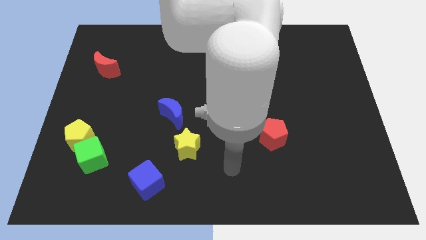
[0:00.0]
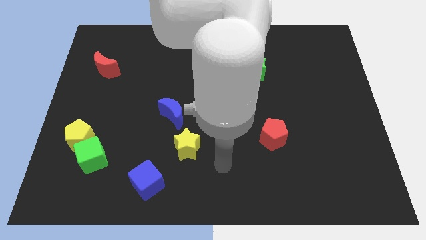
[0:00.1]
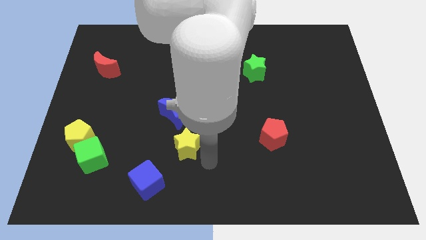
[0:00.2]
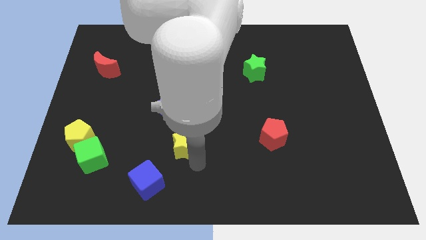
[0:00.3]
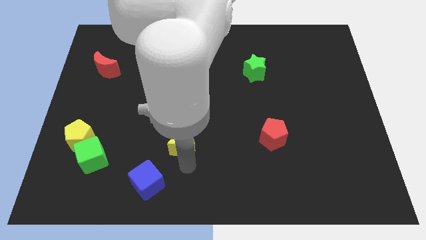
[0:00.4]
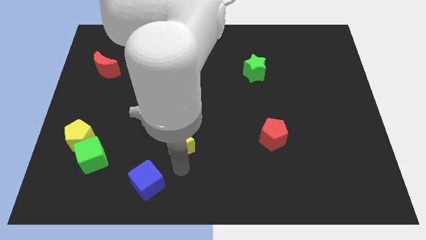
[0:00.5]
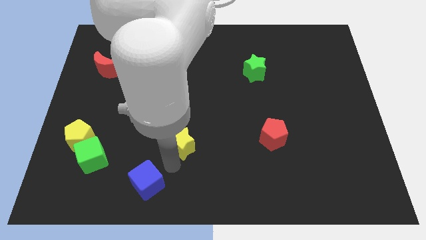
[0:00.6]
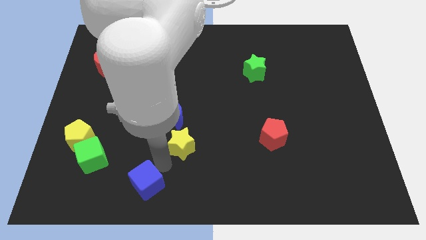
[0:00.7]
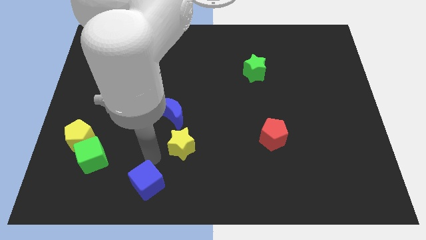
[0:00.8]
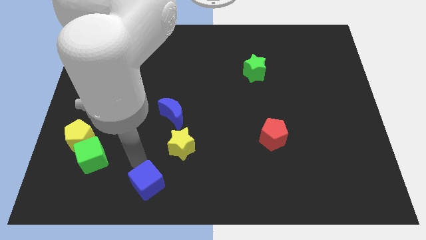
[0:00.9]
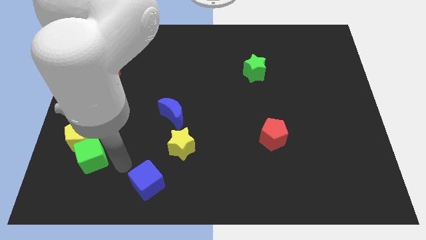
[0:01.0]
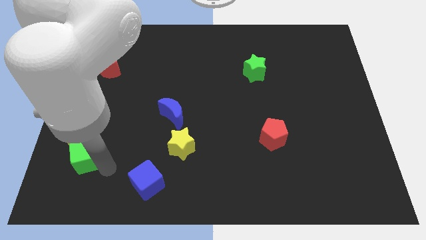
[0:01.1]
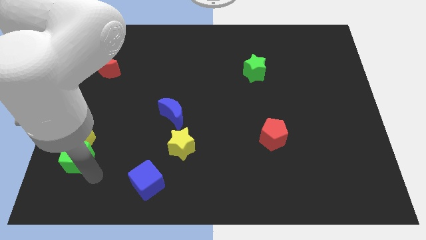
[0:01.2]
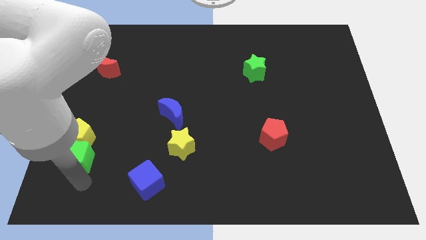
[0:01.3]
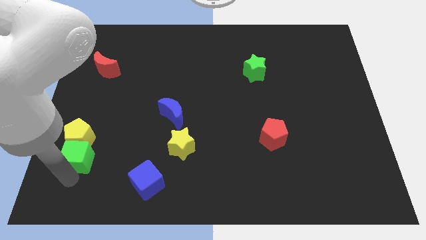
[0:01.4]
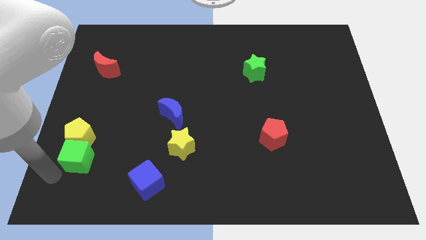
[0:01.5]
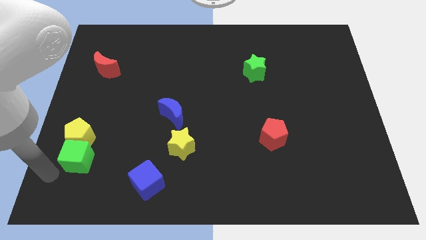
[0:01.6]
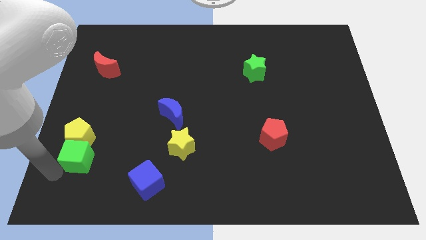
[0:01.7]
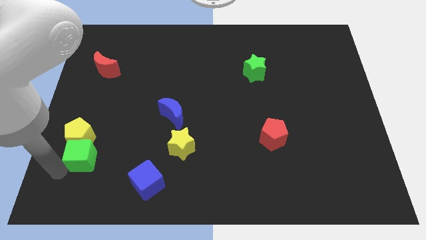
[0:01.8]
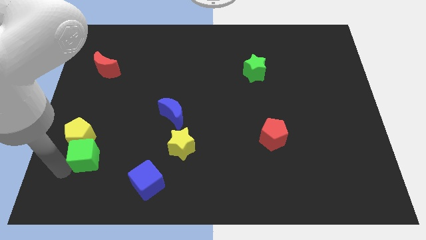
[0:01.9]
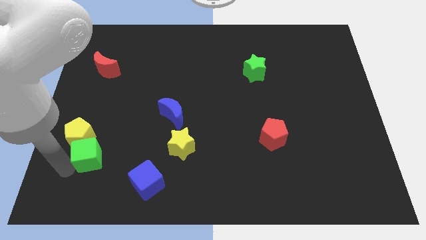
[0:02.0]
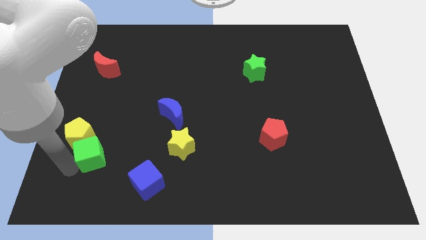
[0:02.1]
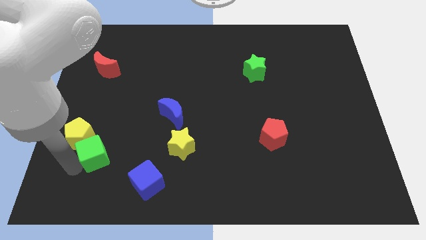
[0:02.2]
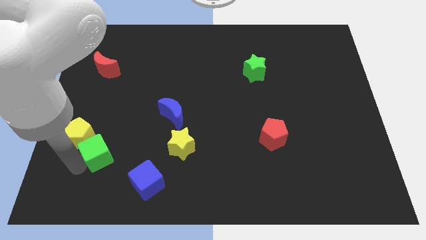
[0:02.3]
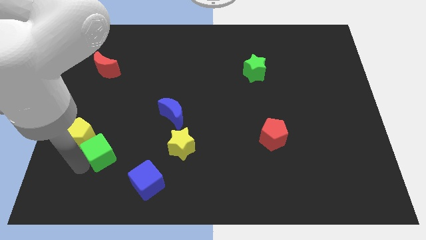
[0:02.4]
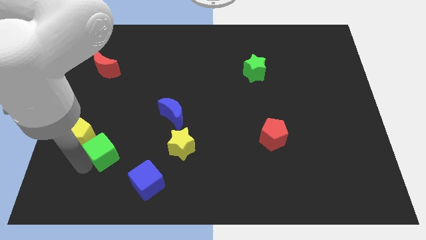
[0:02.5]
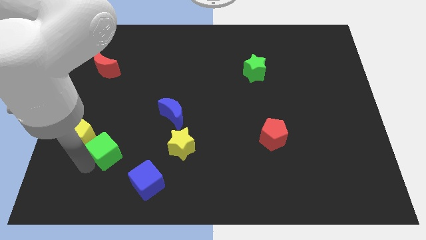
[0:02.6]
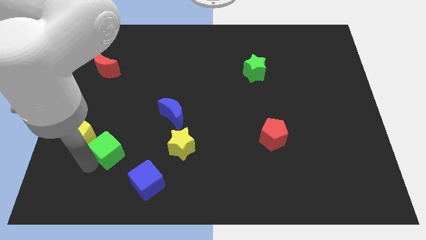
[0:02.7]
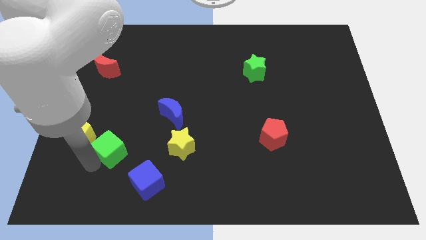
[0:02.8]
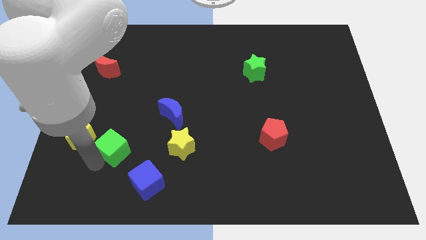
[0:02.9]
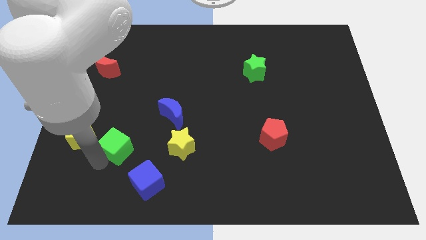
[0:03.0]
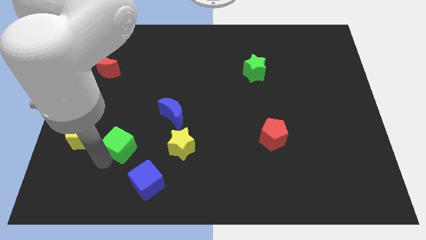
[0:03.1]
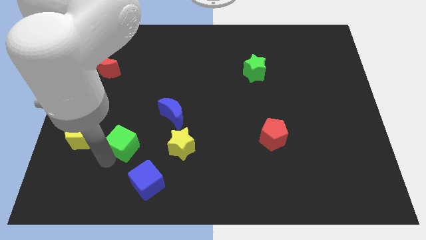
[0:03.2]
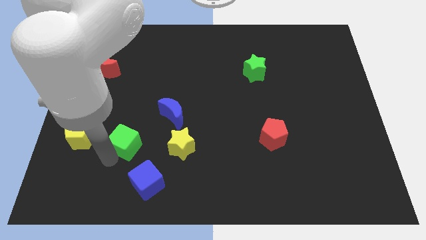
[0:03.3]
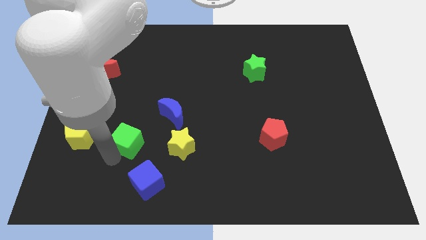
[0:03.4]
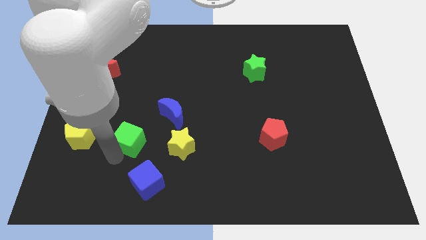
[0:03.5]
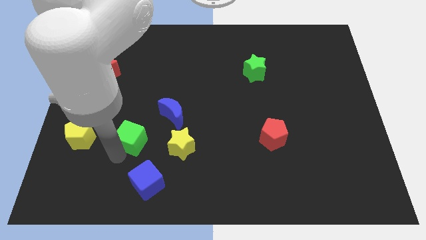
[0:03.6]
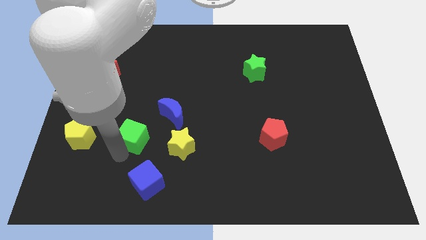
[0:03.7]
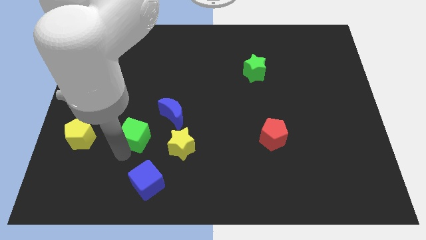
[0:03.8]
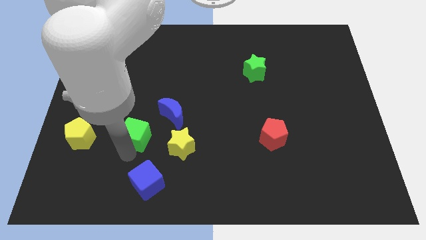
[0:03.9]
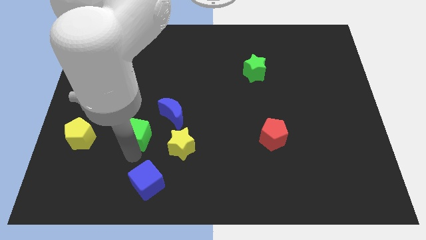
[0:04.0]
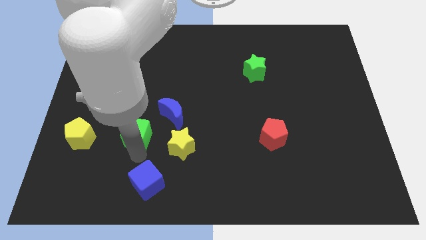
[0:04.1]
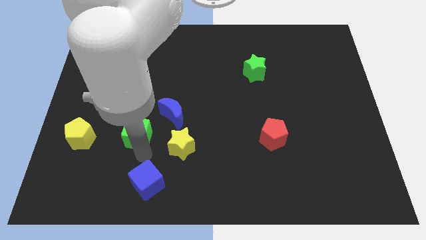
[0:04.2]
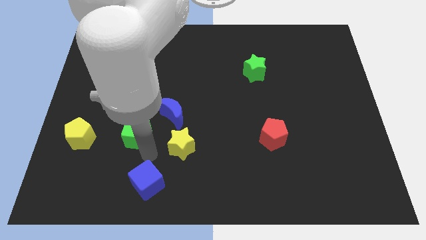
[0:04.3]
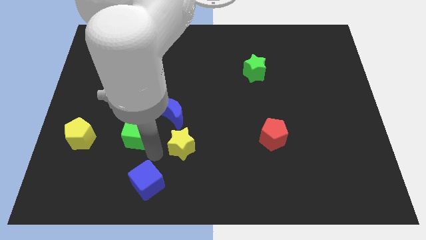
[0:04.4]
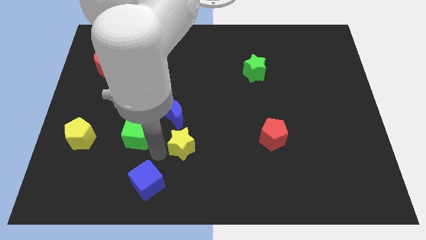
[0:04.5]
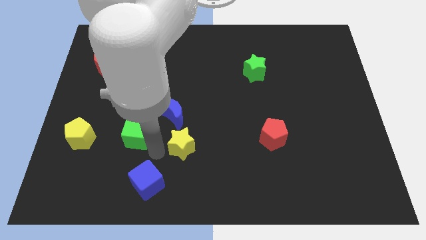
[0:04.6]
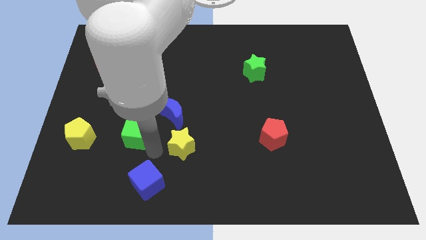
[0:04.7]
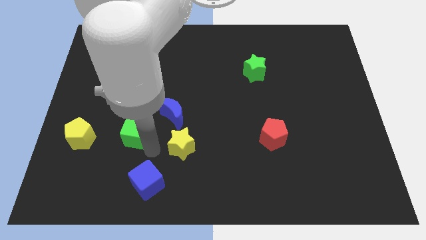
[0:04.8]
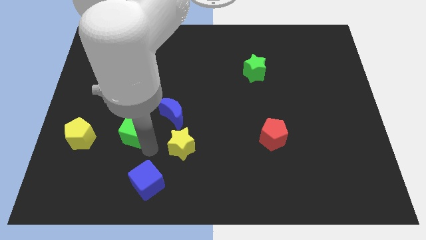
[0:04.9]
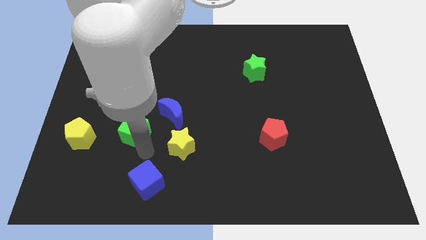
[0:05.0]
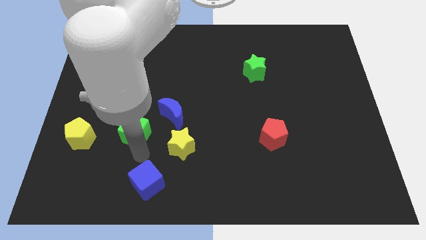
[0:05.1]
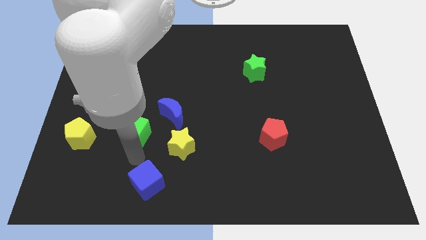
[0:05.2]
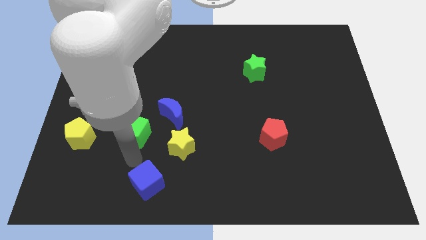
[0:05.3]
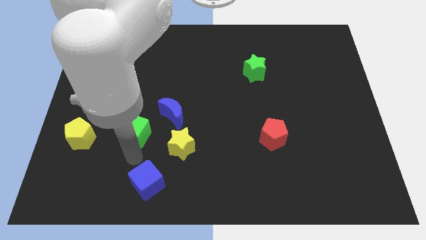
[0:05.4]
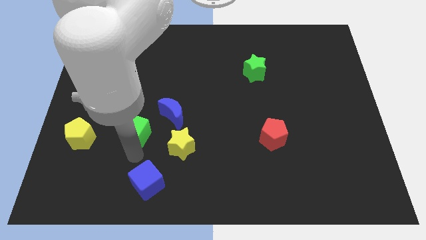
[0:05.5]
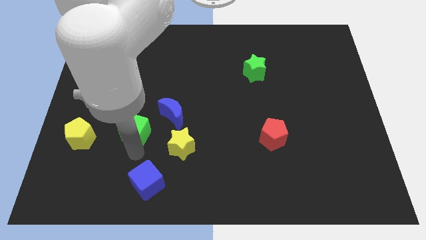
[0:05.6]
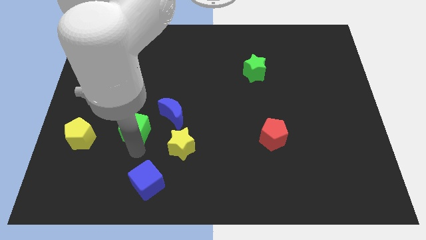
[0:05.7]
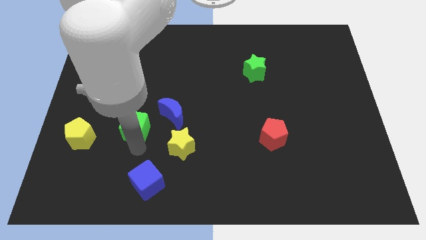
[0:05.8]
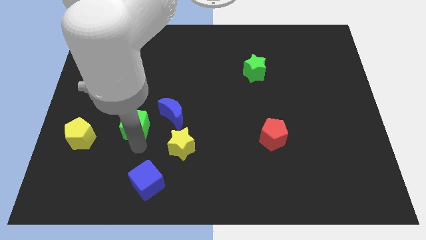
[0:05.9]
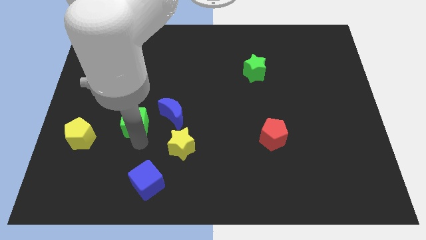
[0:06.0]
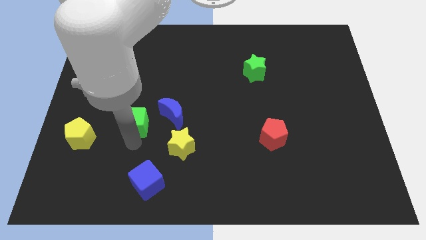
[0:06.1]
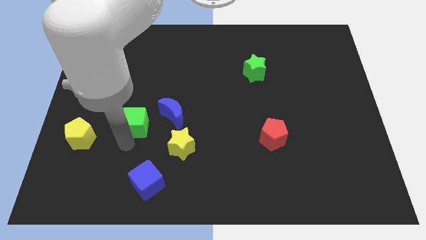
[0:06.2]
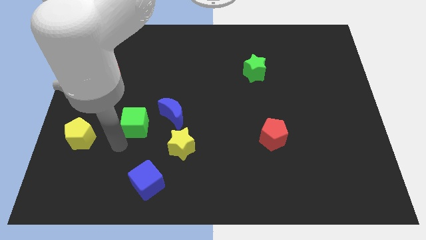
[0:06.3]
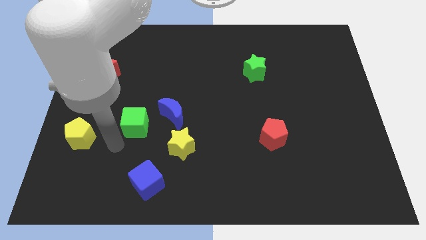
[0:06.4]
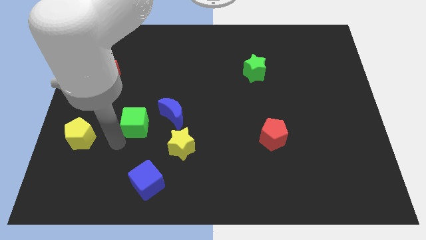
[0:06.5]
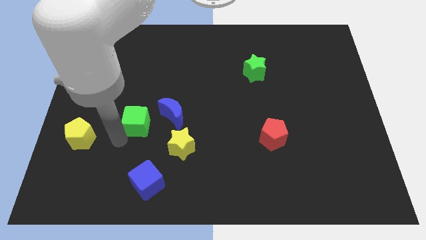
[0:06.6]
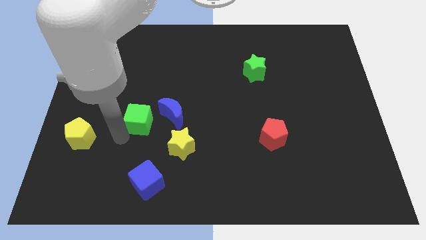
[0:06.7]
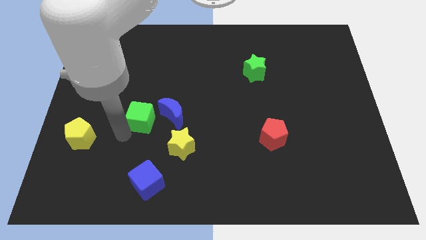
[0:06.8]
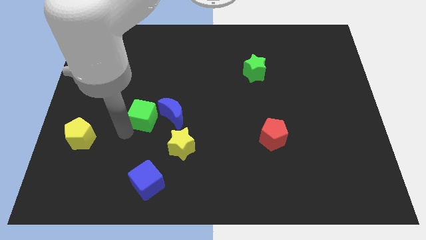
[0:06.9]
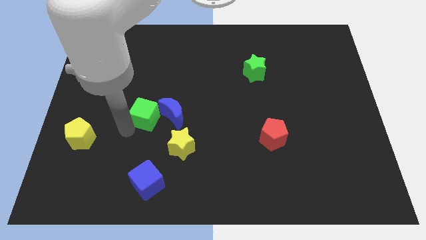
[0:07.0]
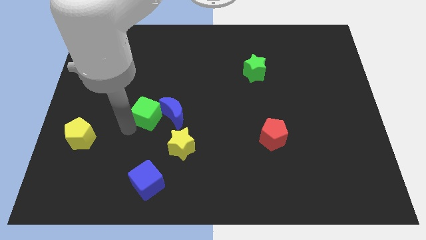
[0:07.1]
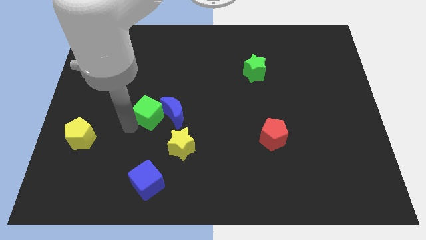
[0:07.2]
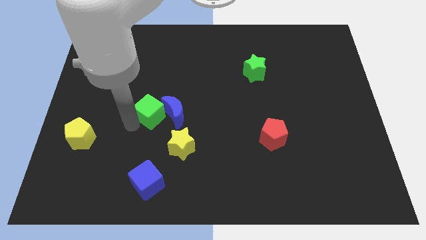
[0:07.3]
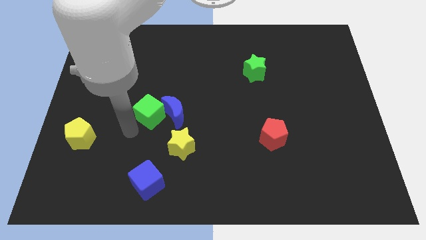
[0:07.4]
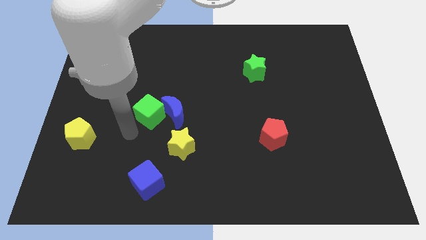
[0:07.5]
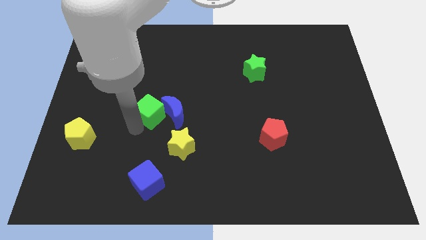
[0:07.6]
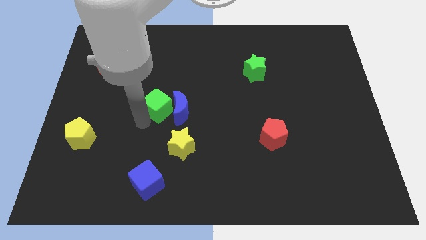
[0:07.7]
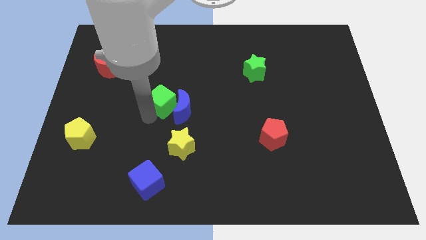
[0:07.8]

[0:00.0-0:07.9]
move the green cube up and to the right

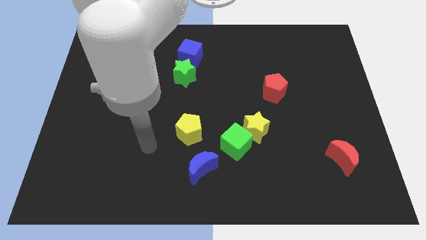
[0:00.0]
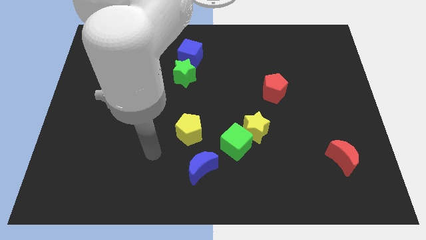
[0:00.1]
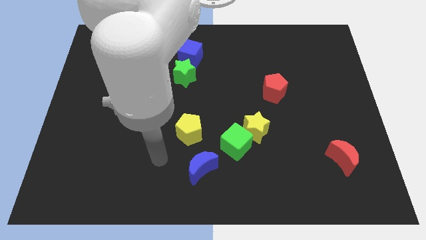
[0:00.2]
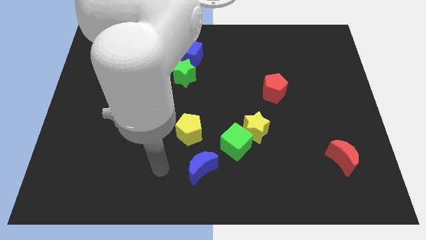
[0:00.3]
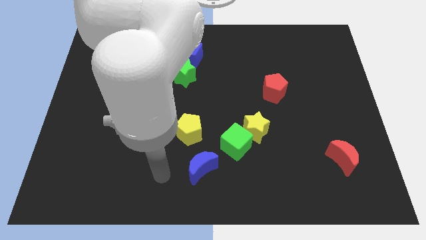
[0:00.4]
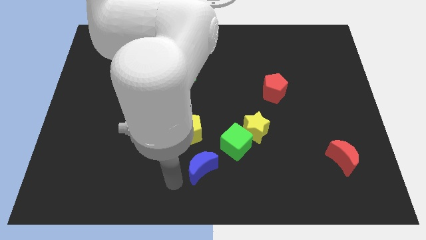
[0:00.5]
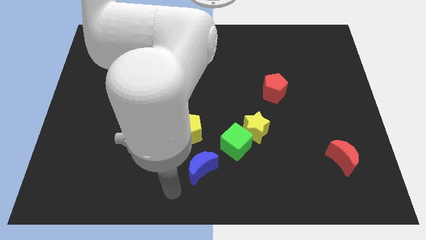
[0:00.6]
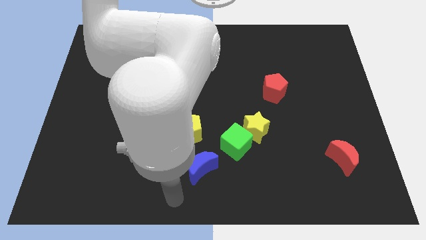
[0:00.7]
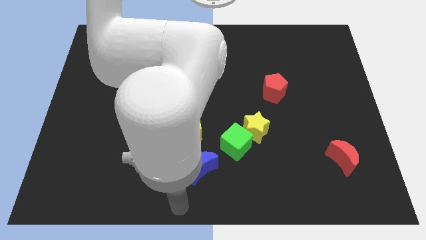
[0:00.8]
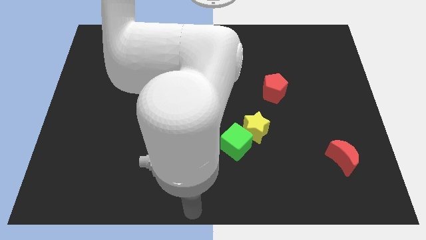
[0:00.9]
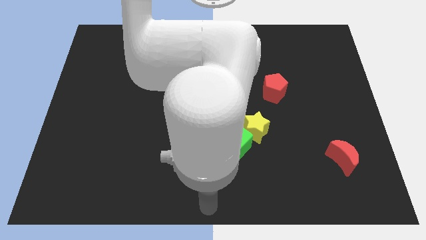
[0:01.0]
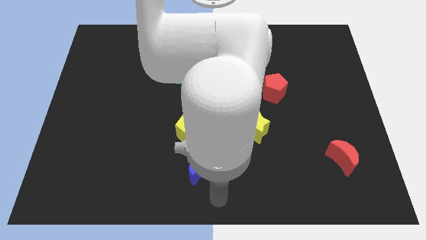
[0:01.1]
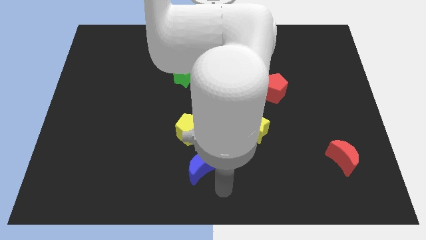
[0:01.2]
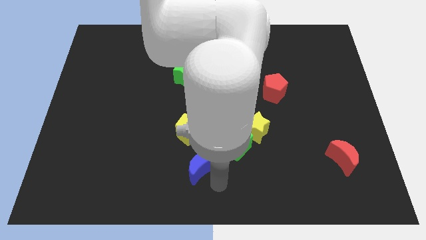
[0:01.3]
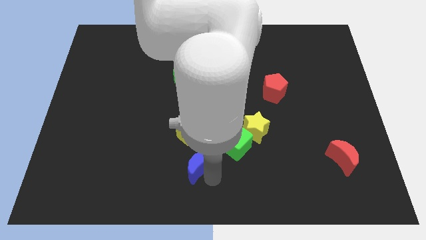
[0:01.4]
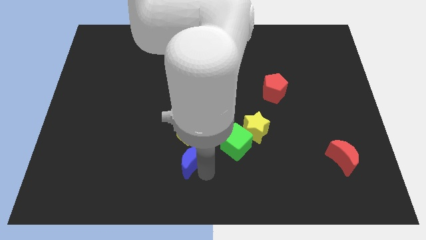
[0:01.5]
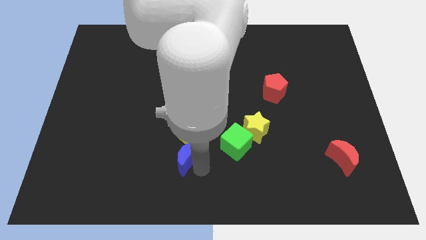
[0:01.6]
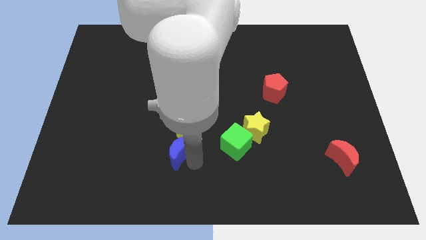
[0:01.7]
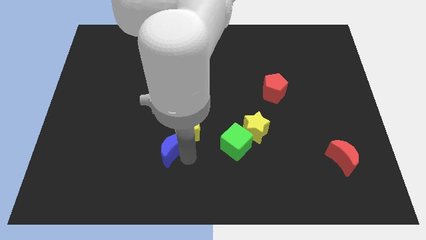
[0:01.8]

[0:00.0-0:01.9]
slightly move the blue moon up and left
